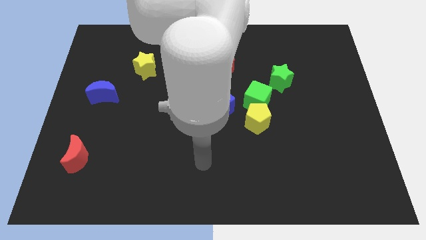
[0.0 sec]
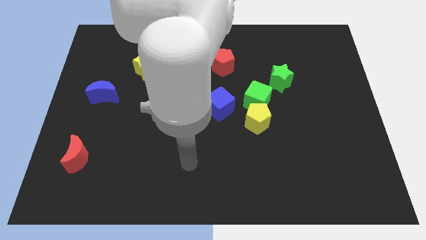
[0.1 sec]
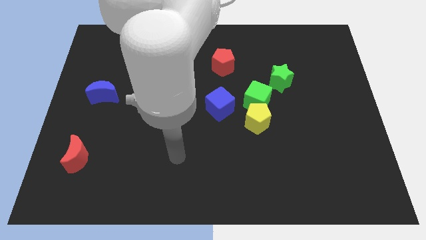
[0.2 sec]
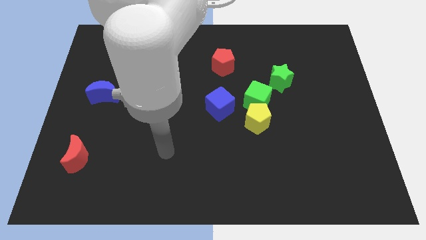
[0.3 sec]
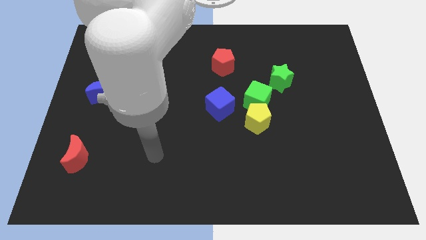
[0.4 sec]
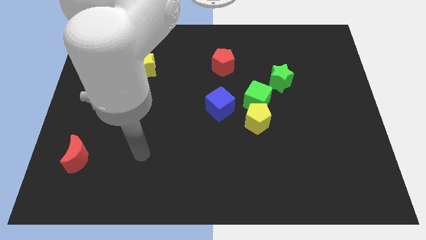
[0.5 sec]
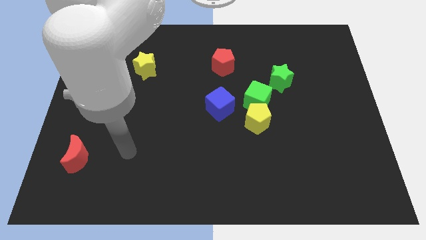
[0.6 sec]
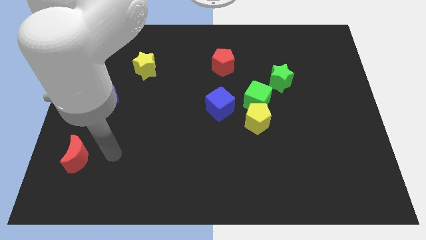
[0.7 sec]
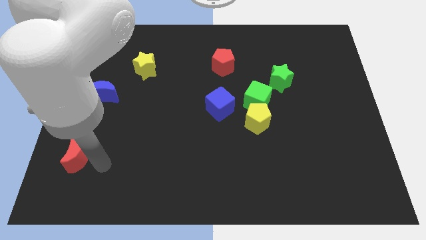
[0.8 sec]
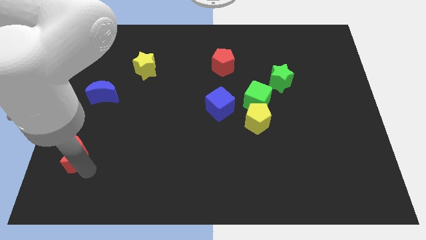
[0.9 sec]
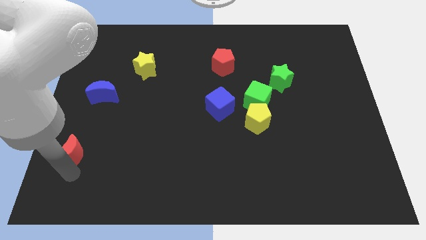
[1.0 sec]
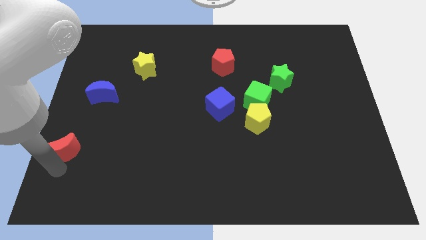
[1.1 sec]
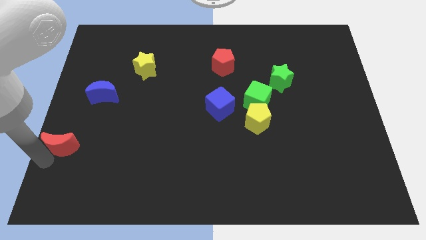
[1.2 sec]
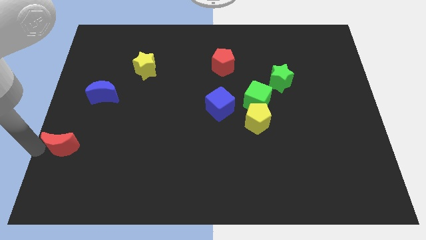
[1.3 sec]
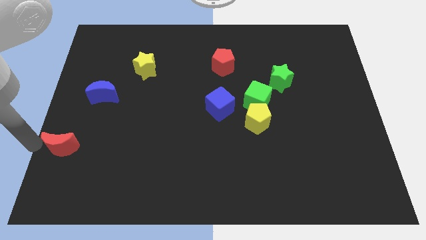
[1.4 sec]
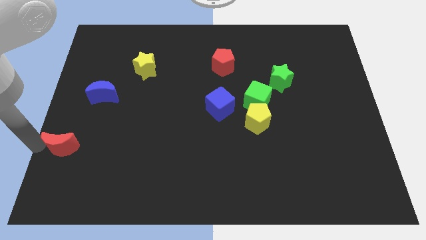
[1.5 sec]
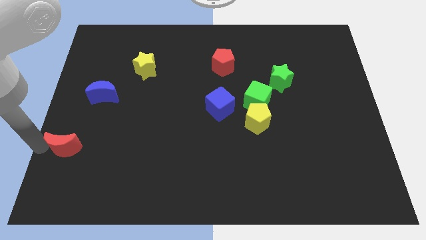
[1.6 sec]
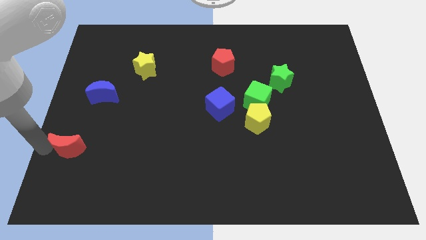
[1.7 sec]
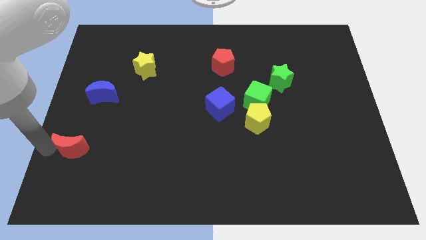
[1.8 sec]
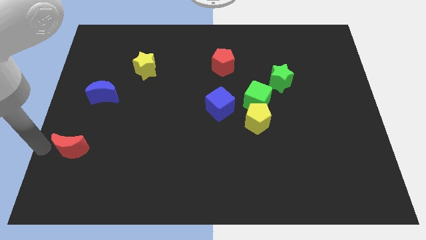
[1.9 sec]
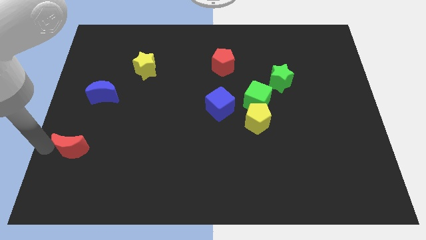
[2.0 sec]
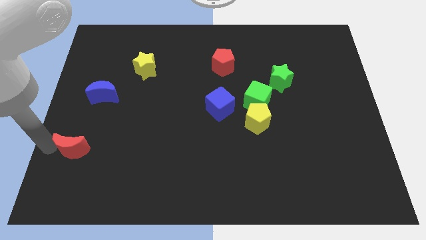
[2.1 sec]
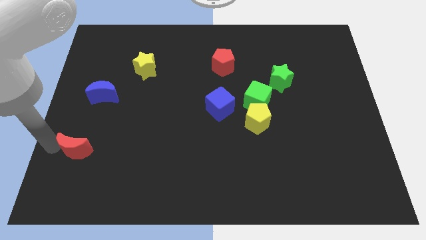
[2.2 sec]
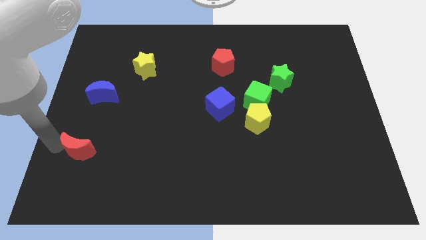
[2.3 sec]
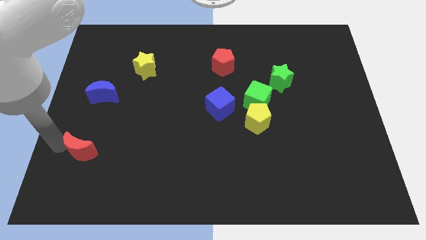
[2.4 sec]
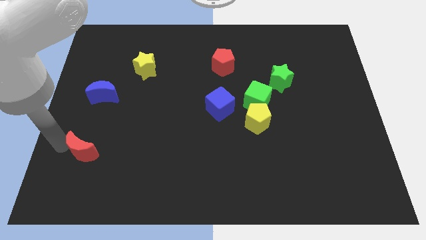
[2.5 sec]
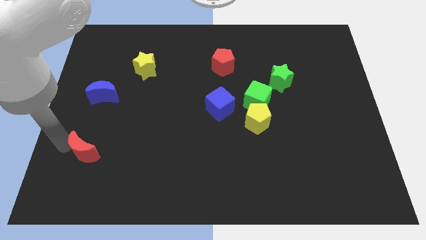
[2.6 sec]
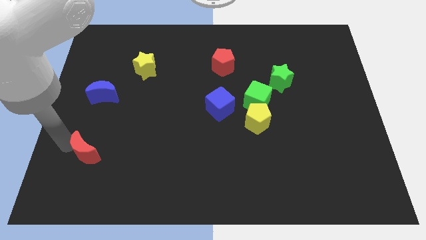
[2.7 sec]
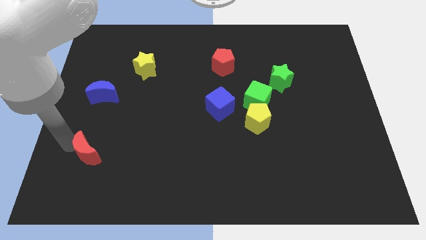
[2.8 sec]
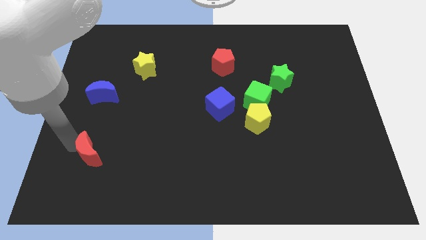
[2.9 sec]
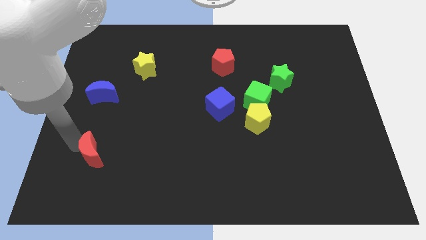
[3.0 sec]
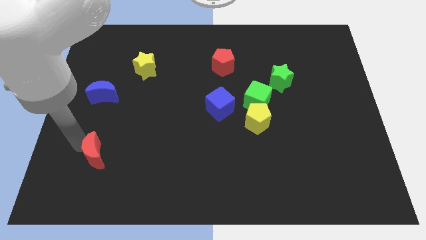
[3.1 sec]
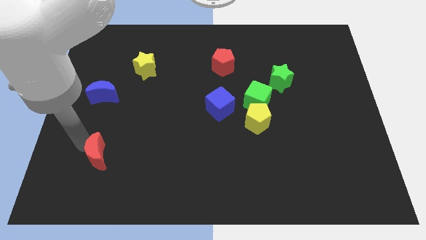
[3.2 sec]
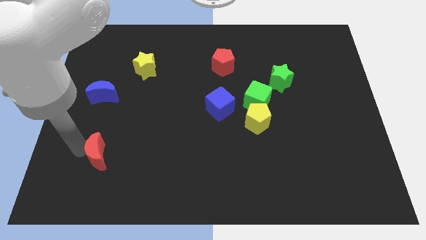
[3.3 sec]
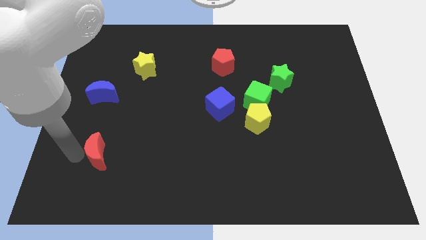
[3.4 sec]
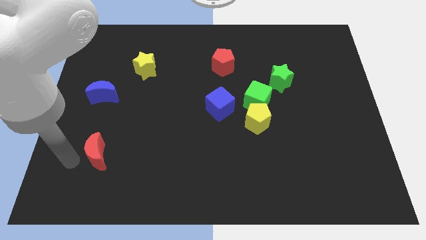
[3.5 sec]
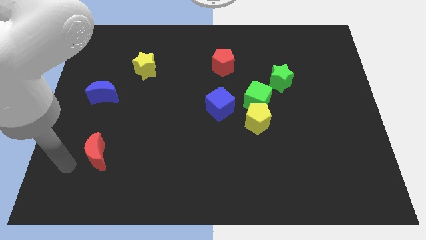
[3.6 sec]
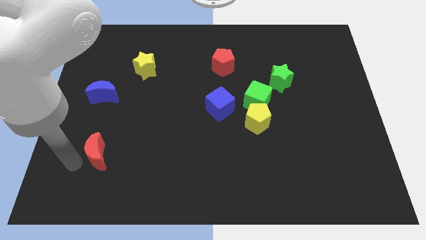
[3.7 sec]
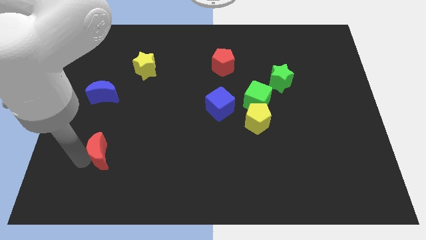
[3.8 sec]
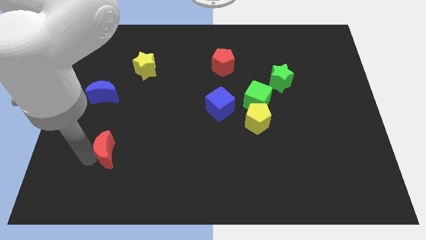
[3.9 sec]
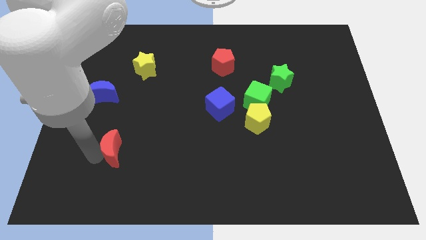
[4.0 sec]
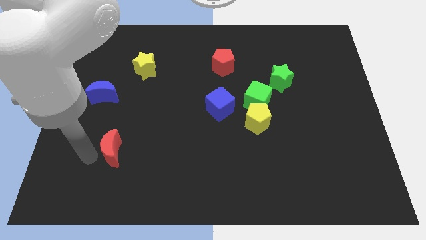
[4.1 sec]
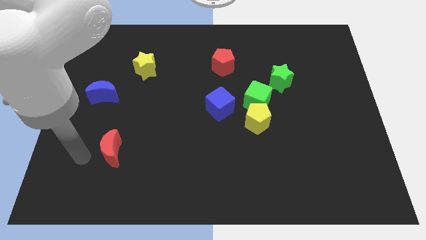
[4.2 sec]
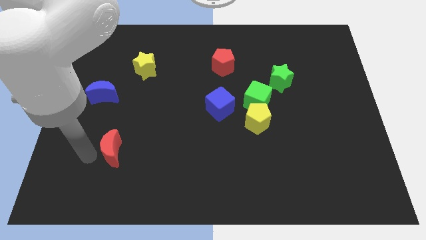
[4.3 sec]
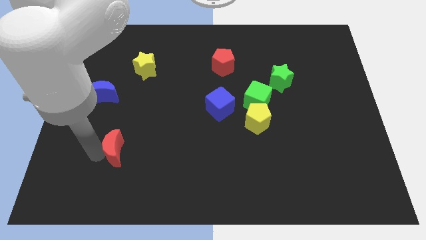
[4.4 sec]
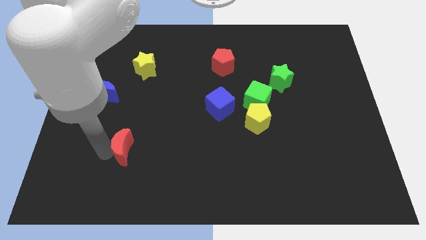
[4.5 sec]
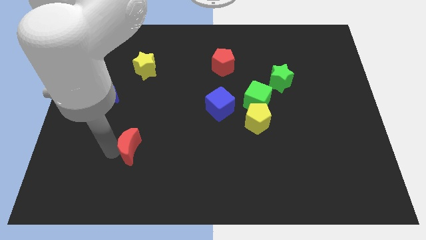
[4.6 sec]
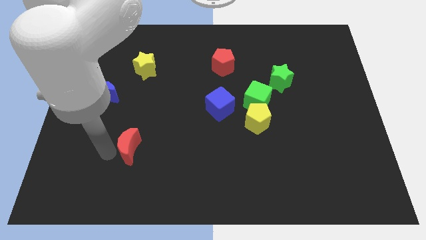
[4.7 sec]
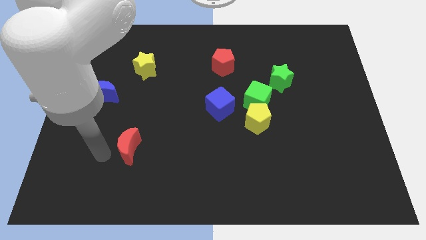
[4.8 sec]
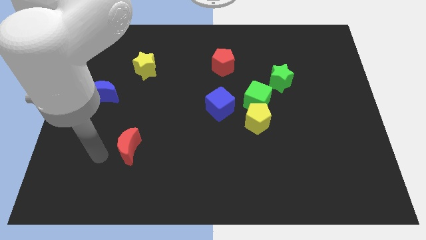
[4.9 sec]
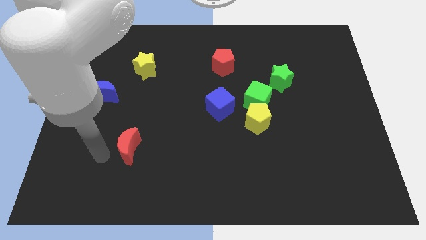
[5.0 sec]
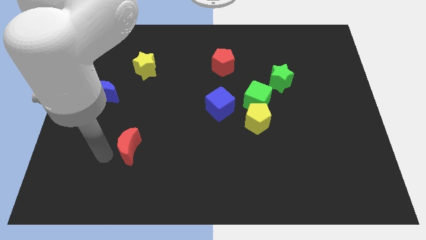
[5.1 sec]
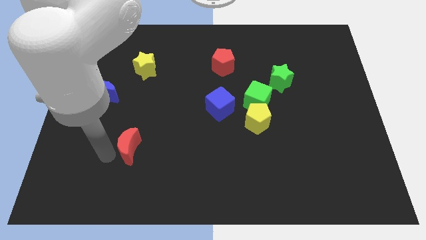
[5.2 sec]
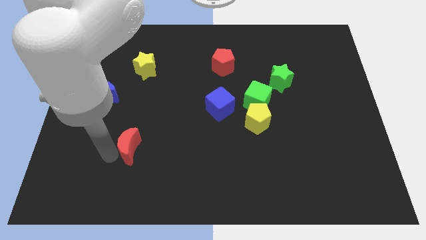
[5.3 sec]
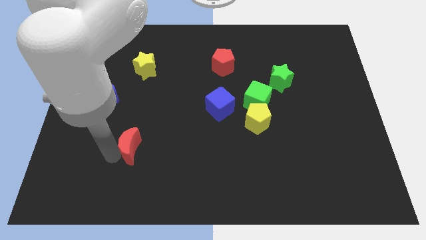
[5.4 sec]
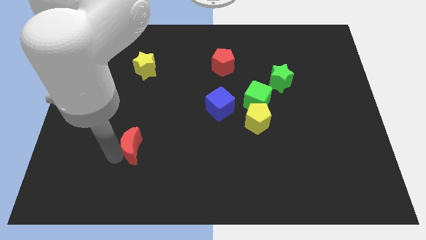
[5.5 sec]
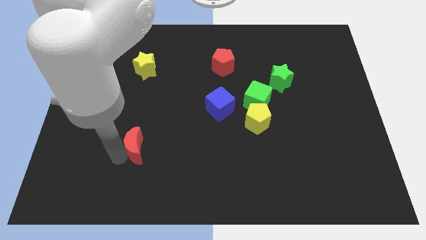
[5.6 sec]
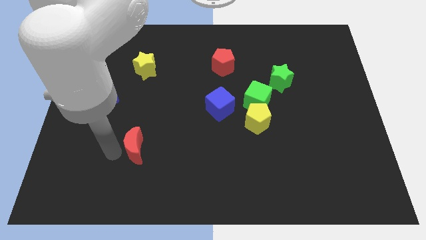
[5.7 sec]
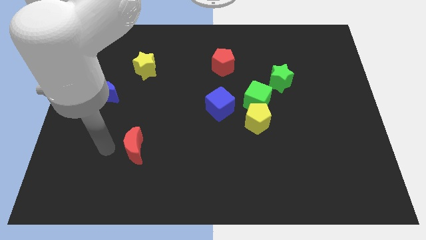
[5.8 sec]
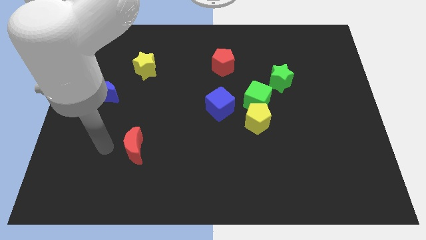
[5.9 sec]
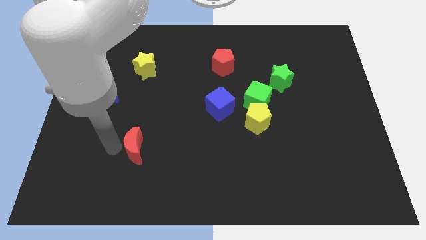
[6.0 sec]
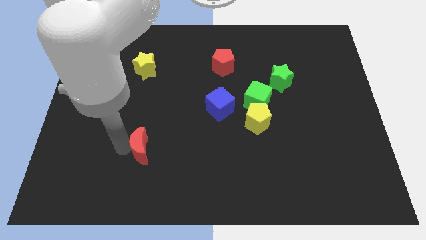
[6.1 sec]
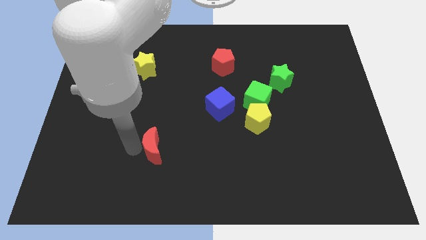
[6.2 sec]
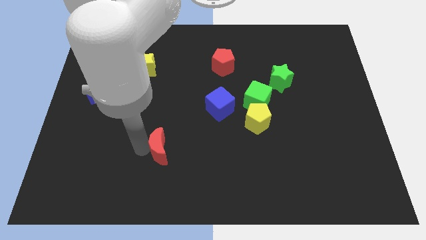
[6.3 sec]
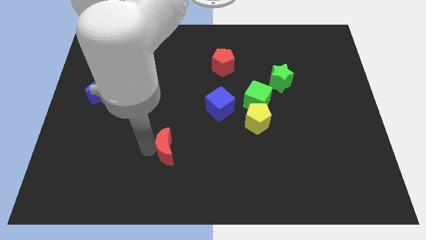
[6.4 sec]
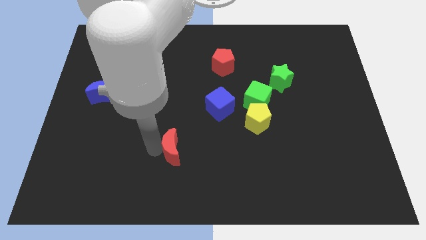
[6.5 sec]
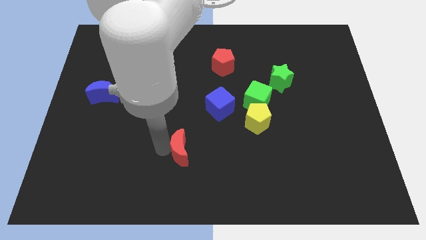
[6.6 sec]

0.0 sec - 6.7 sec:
slide the red moon right

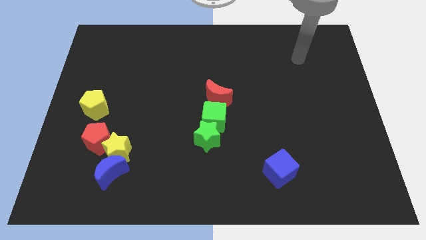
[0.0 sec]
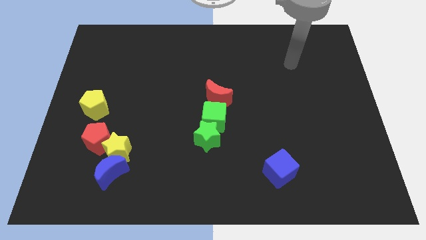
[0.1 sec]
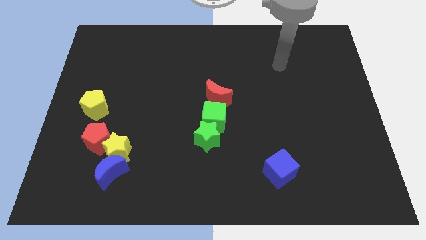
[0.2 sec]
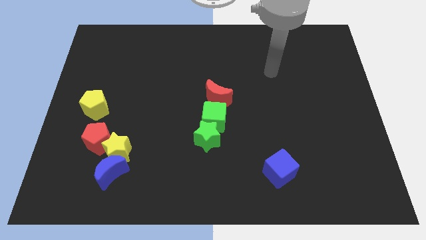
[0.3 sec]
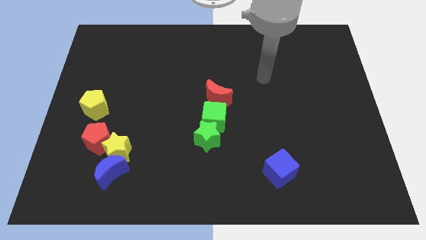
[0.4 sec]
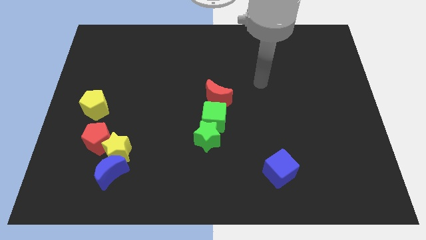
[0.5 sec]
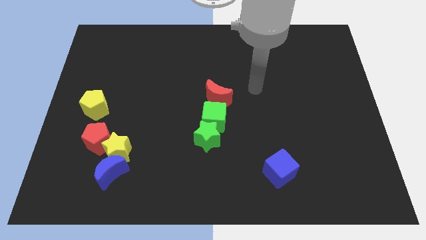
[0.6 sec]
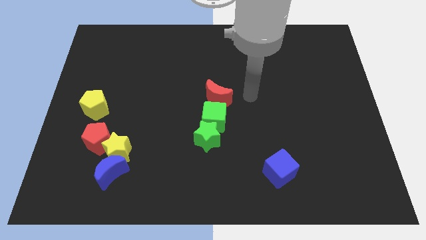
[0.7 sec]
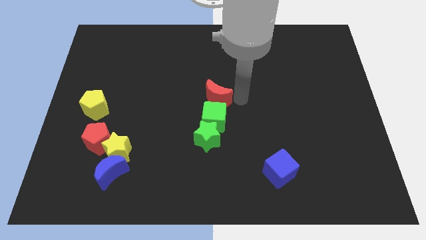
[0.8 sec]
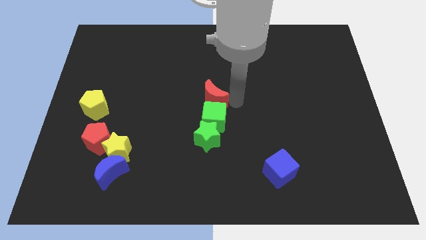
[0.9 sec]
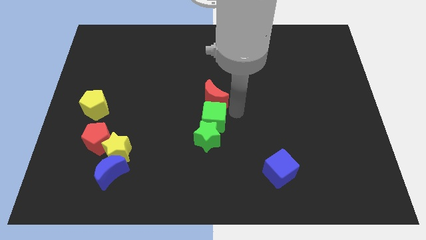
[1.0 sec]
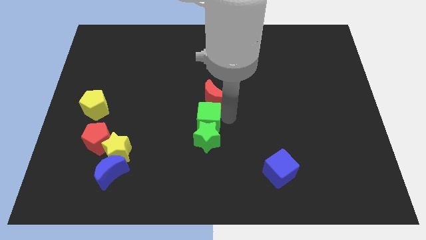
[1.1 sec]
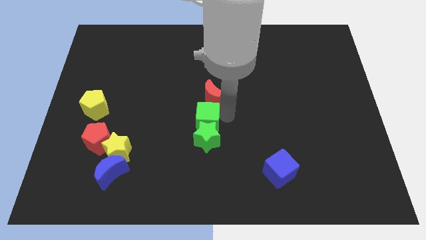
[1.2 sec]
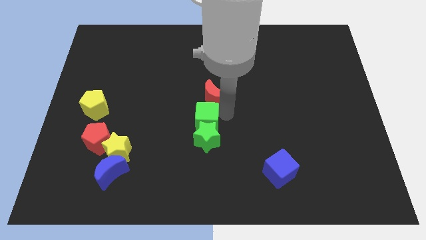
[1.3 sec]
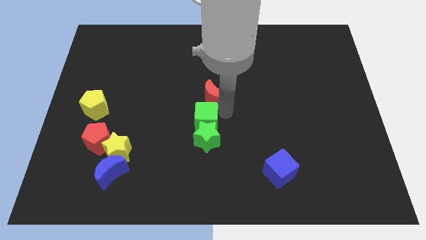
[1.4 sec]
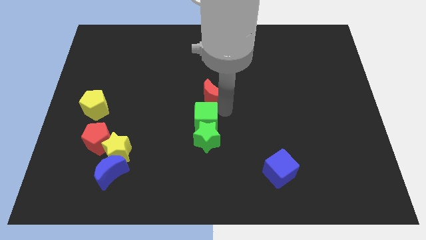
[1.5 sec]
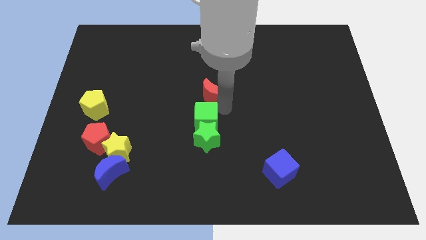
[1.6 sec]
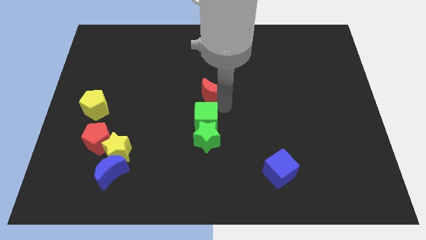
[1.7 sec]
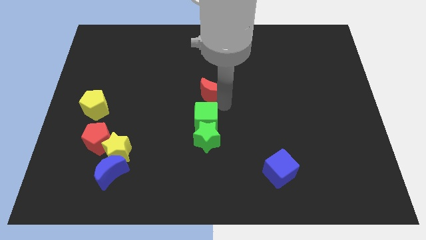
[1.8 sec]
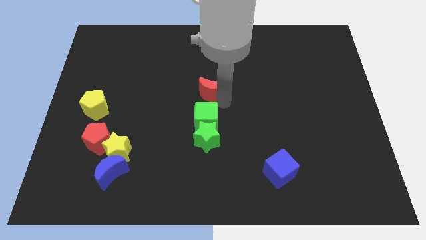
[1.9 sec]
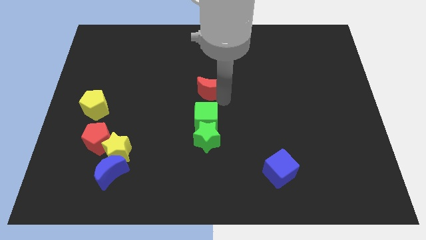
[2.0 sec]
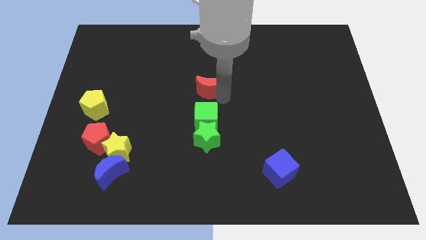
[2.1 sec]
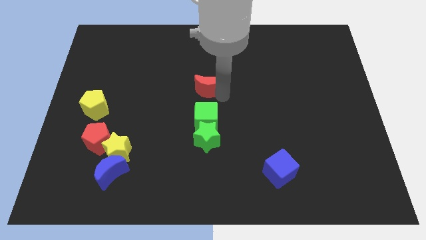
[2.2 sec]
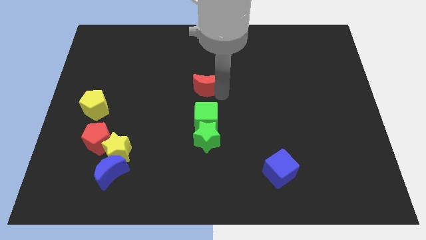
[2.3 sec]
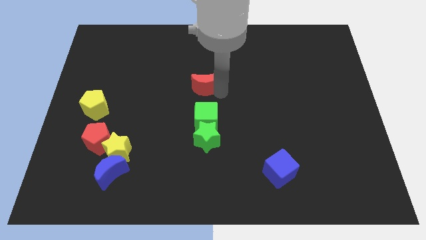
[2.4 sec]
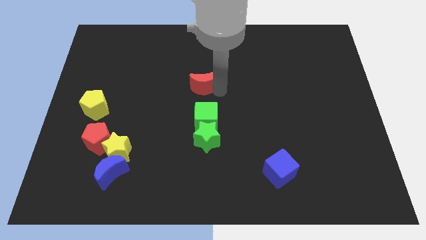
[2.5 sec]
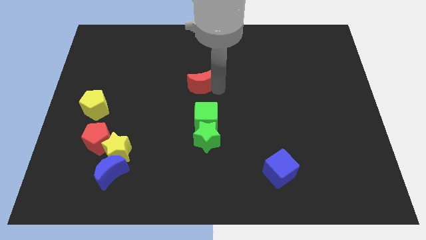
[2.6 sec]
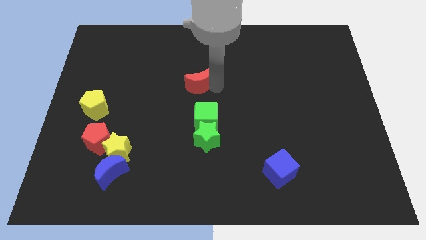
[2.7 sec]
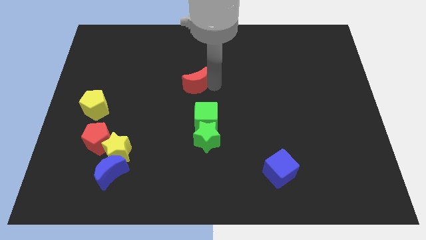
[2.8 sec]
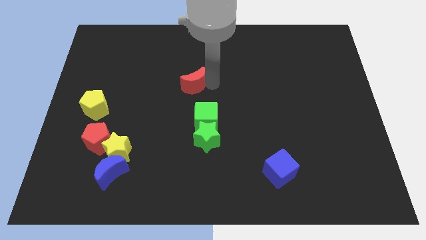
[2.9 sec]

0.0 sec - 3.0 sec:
push the red moon diagonally upwards and to the left slightly
